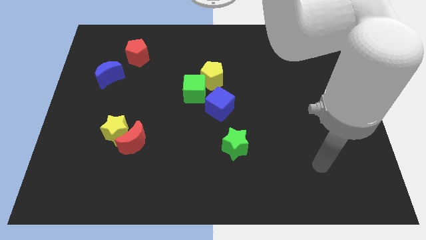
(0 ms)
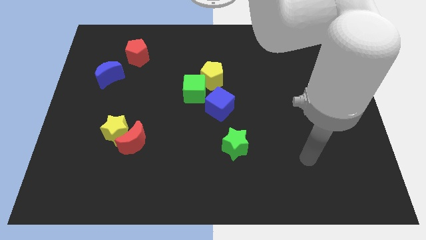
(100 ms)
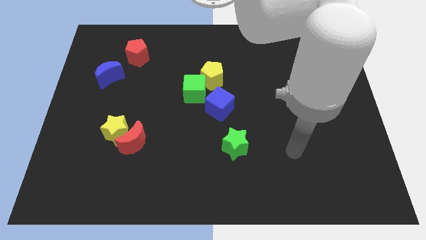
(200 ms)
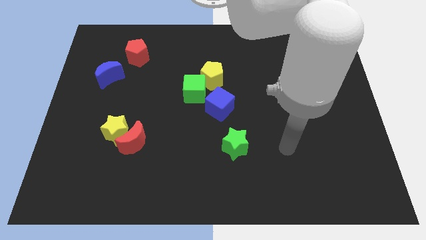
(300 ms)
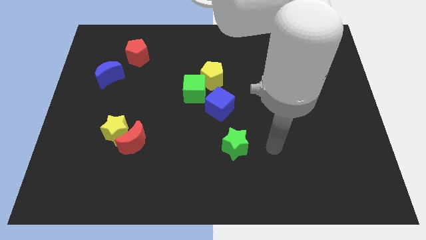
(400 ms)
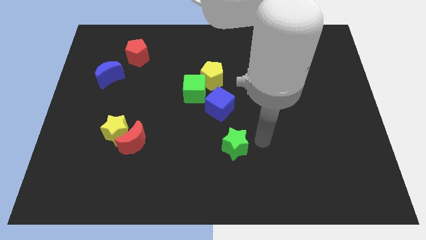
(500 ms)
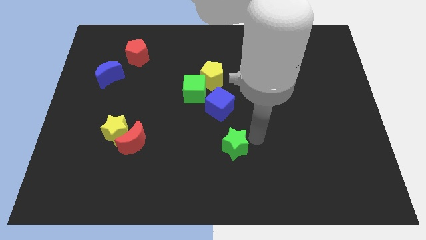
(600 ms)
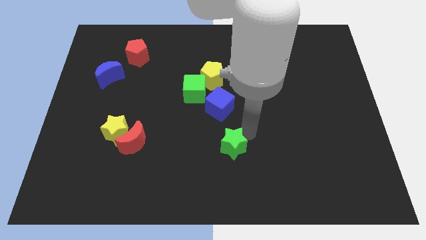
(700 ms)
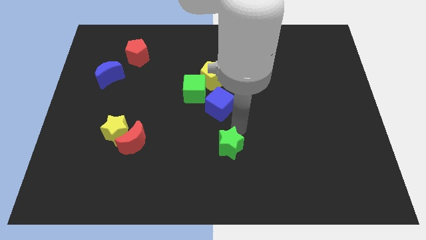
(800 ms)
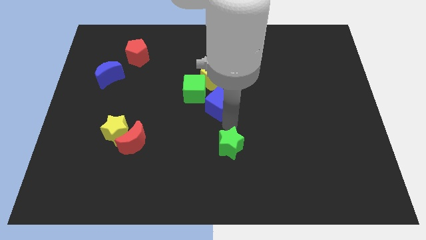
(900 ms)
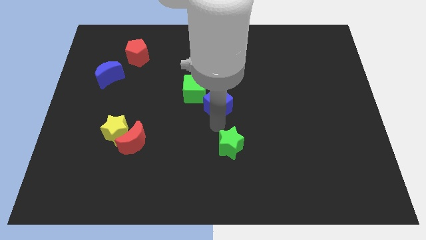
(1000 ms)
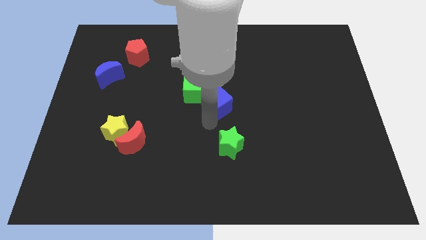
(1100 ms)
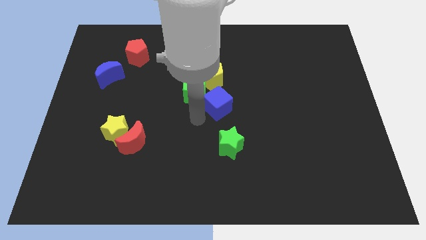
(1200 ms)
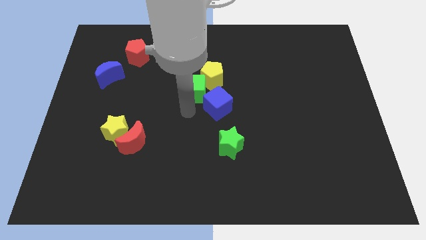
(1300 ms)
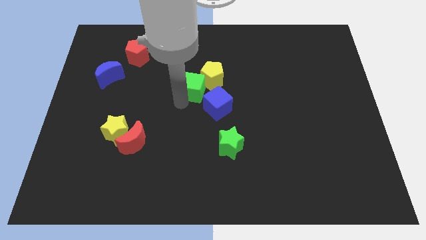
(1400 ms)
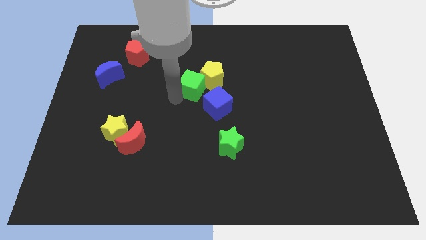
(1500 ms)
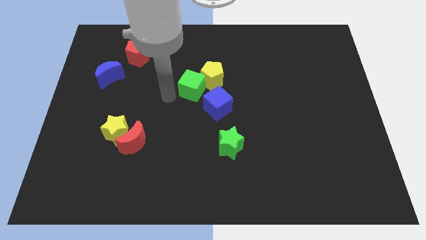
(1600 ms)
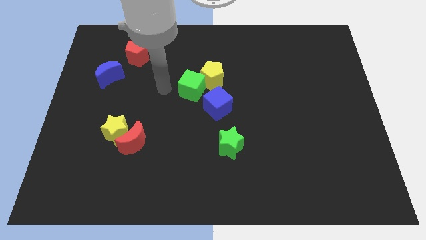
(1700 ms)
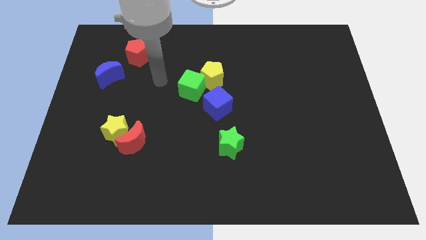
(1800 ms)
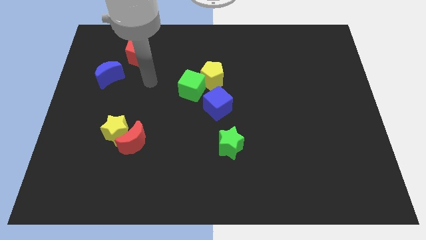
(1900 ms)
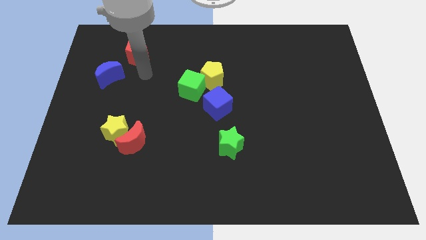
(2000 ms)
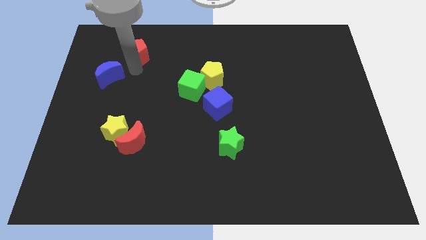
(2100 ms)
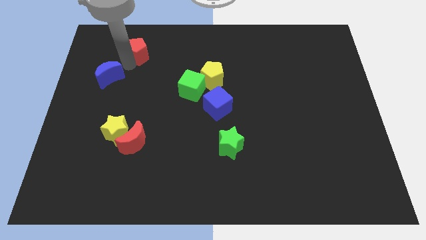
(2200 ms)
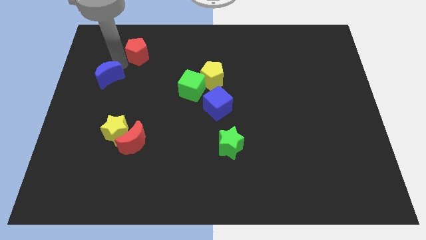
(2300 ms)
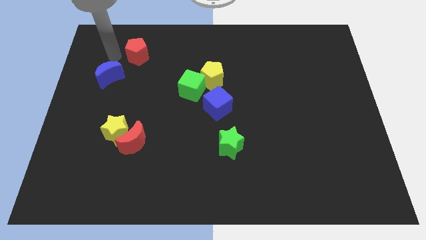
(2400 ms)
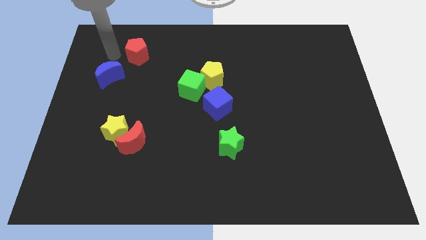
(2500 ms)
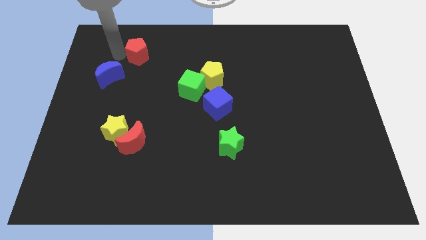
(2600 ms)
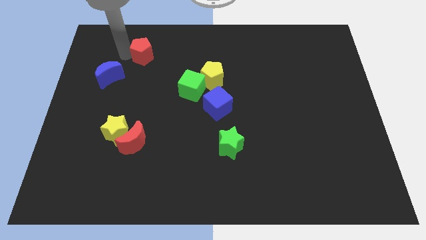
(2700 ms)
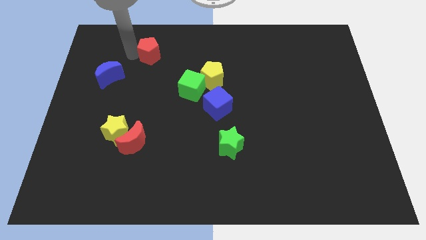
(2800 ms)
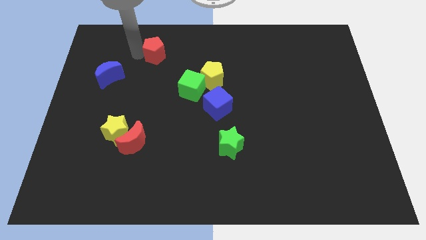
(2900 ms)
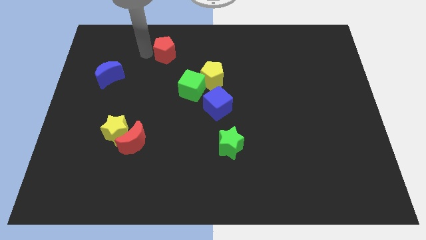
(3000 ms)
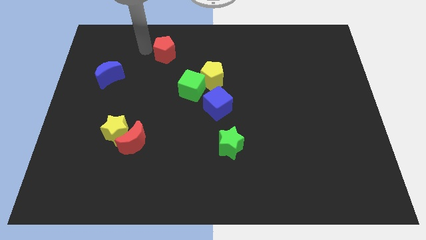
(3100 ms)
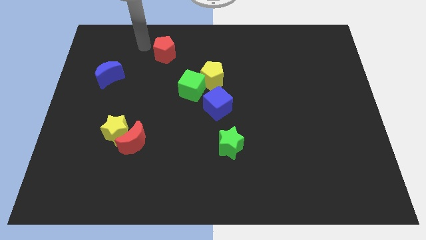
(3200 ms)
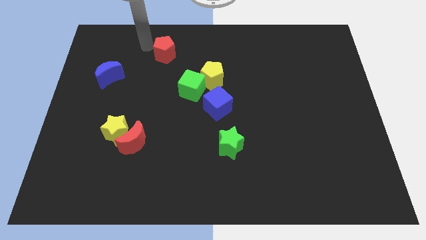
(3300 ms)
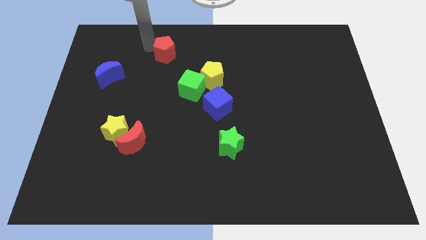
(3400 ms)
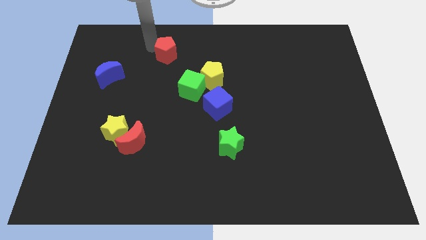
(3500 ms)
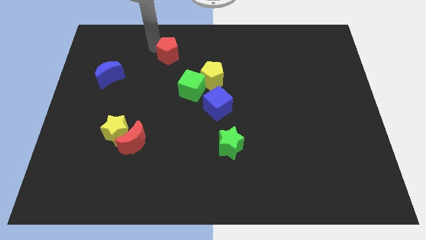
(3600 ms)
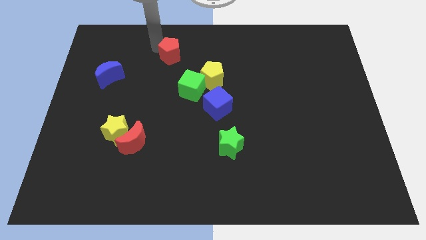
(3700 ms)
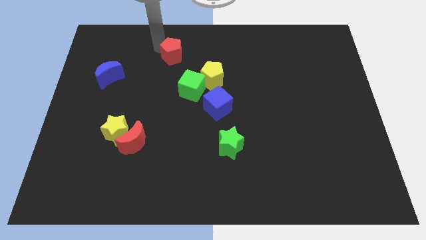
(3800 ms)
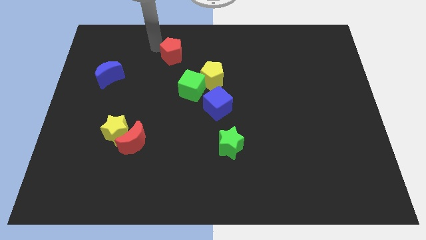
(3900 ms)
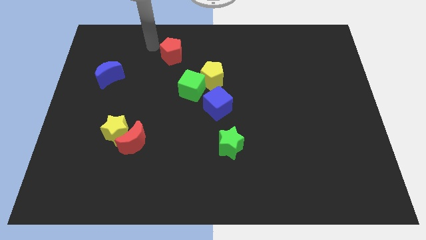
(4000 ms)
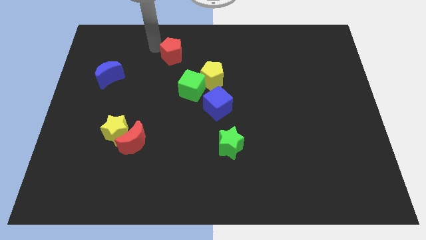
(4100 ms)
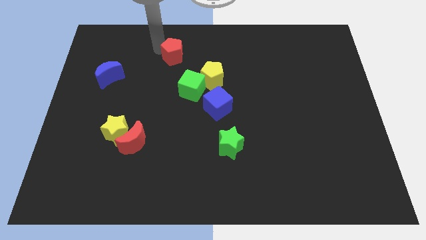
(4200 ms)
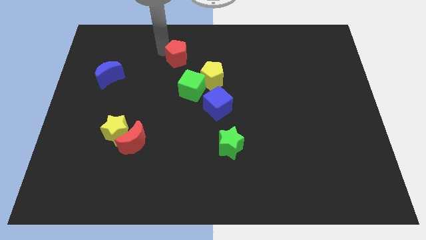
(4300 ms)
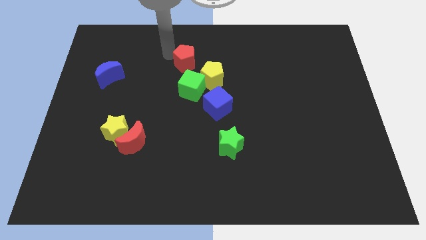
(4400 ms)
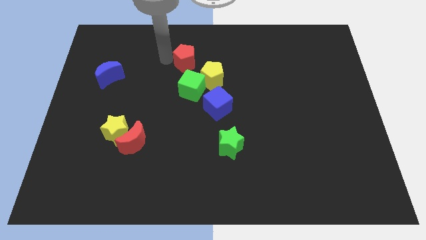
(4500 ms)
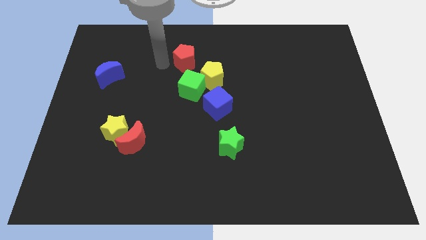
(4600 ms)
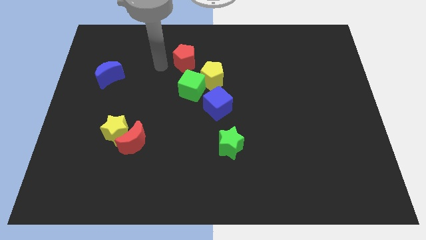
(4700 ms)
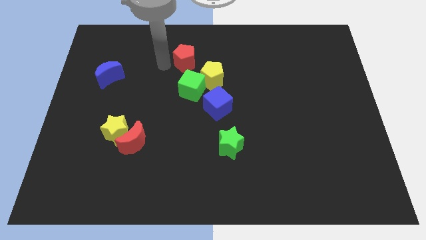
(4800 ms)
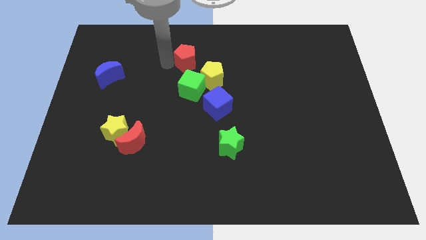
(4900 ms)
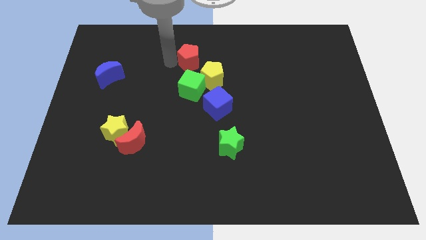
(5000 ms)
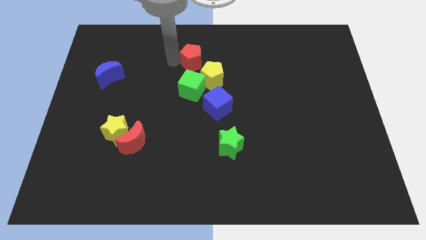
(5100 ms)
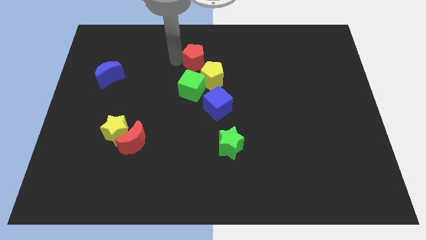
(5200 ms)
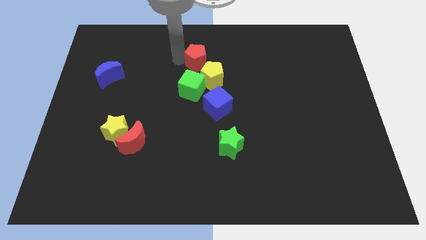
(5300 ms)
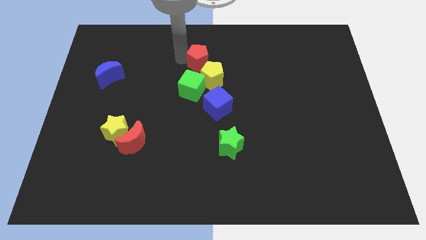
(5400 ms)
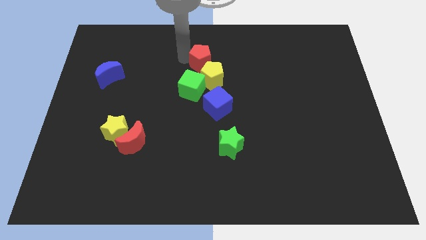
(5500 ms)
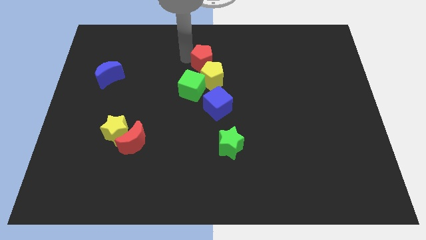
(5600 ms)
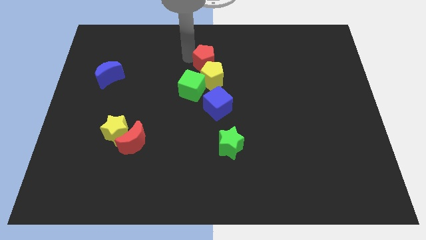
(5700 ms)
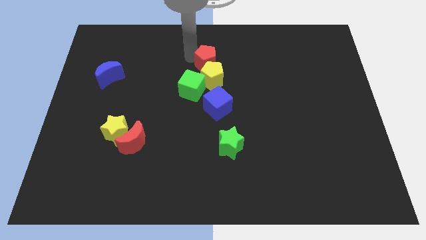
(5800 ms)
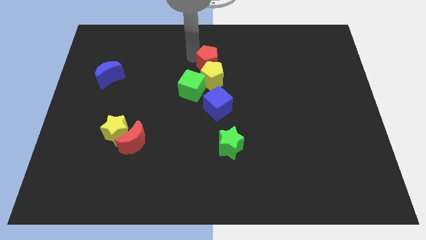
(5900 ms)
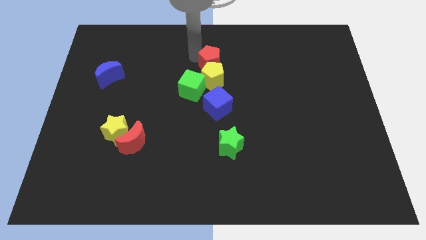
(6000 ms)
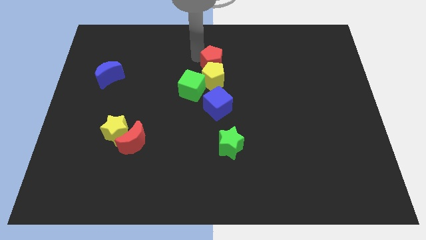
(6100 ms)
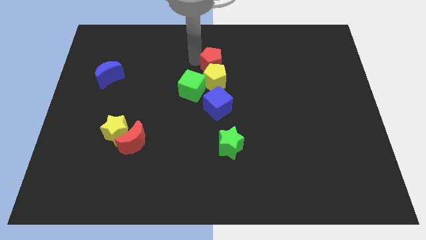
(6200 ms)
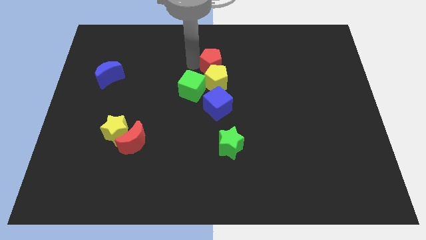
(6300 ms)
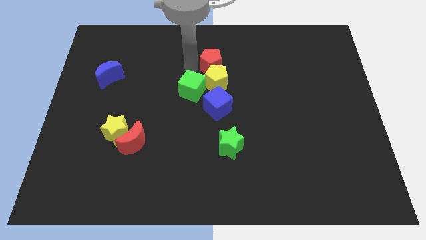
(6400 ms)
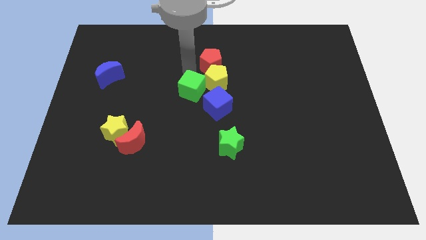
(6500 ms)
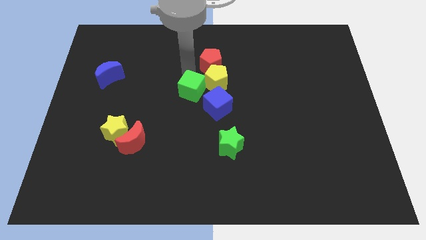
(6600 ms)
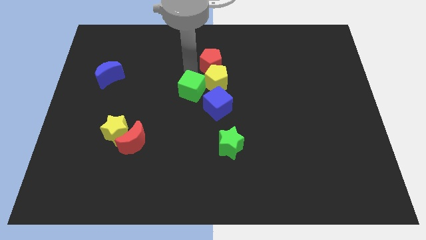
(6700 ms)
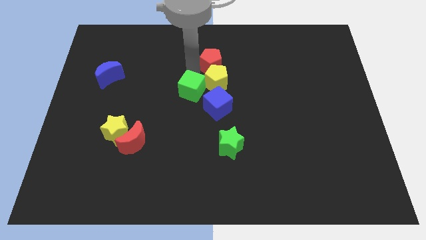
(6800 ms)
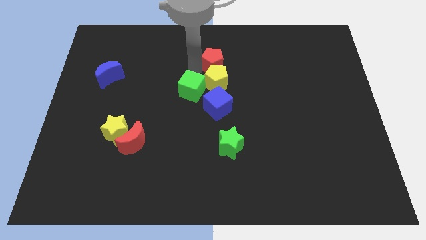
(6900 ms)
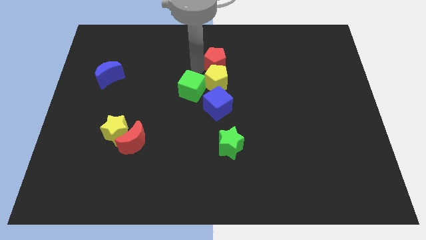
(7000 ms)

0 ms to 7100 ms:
move the red pentagon to the right

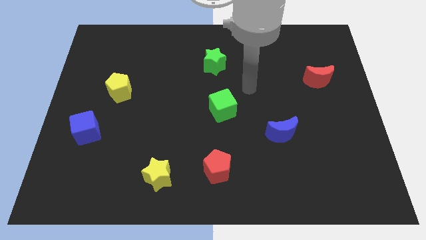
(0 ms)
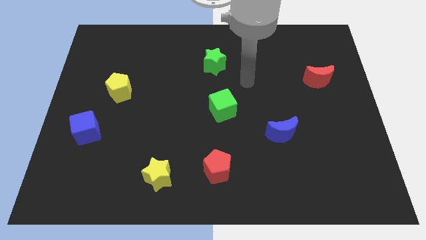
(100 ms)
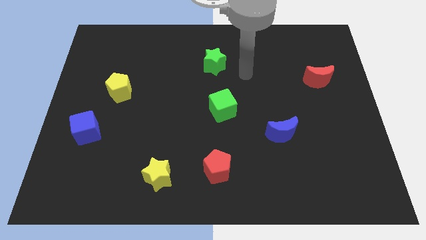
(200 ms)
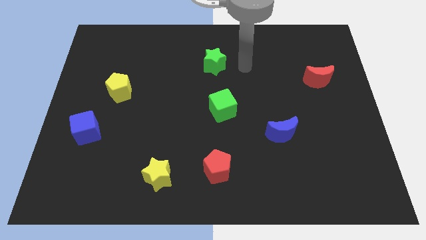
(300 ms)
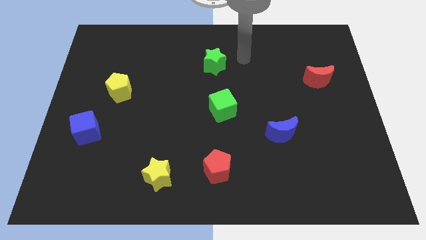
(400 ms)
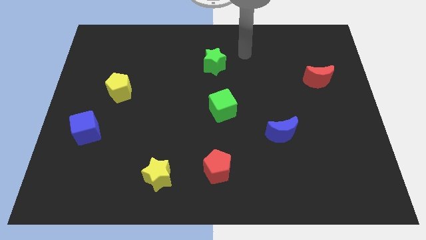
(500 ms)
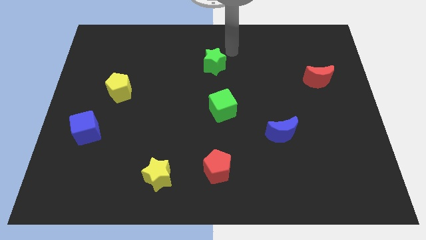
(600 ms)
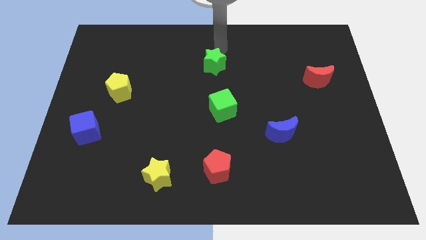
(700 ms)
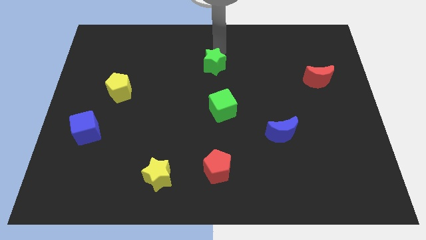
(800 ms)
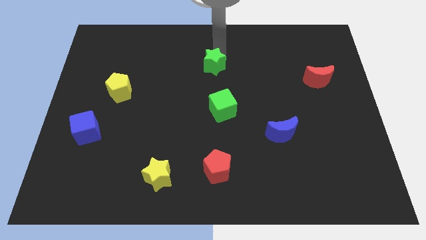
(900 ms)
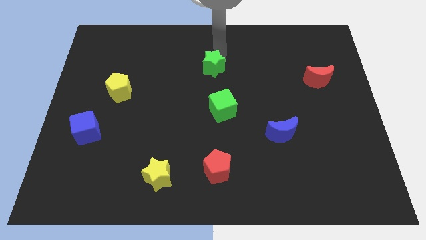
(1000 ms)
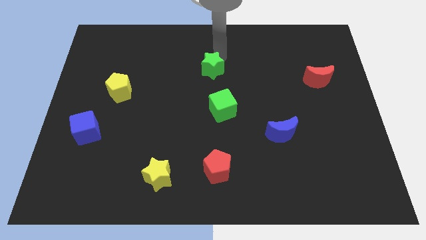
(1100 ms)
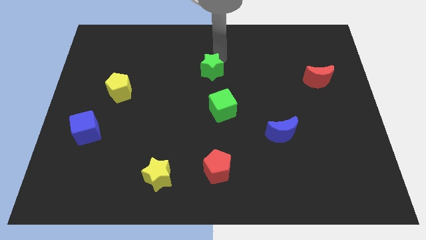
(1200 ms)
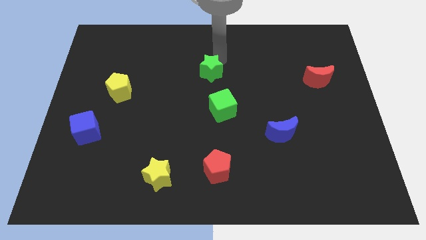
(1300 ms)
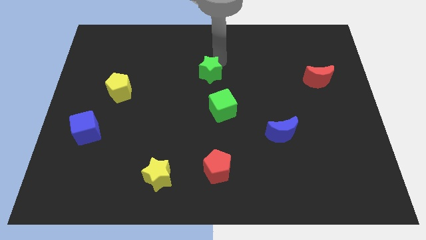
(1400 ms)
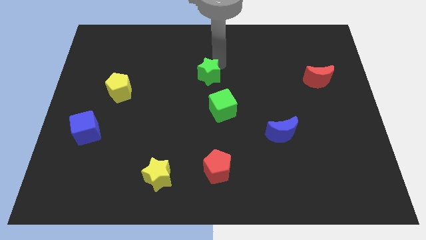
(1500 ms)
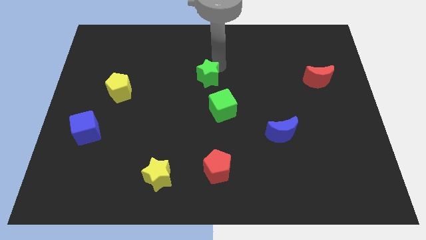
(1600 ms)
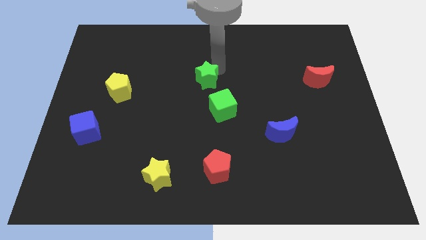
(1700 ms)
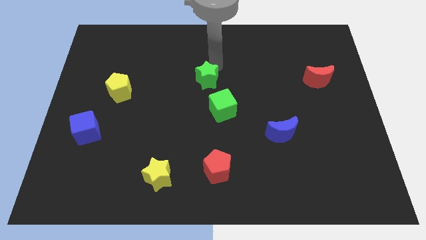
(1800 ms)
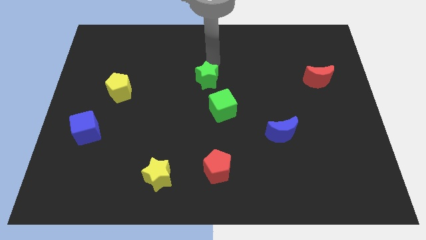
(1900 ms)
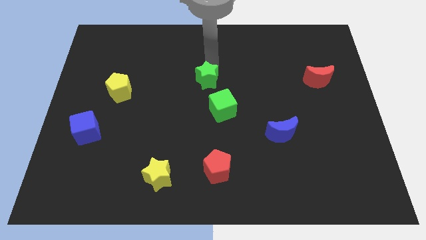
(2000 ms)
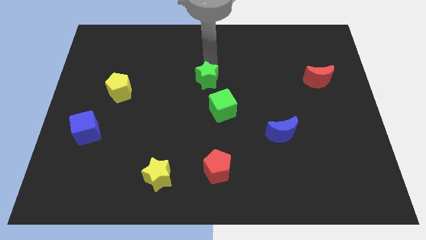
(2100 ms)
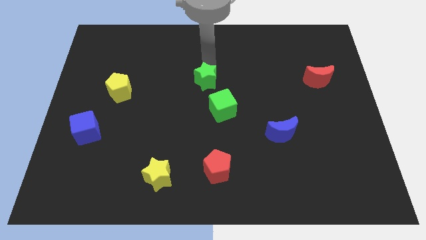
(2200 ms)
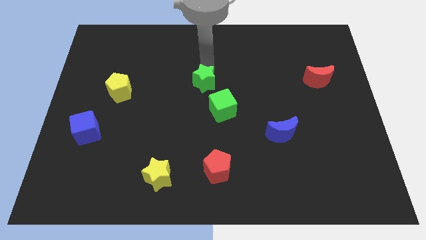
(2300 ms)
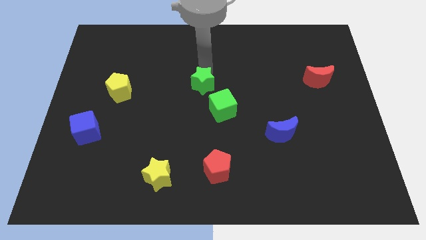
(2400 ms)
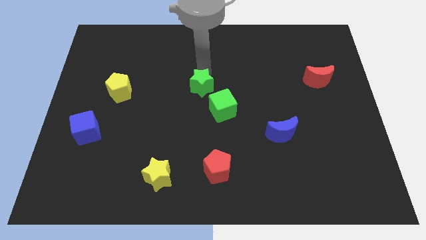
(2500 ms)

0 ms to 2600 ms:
slightly push the green star downwards
